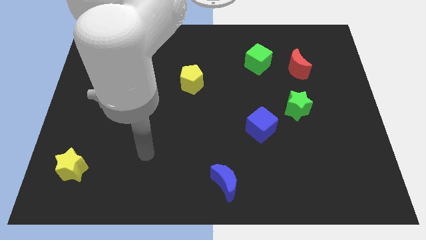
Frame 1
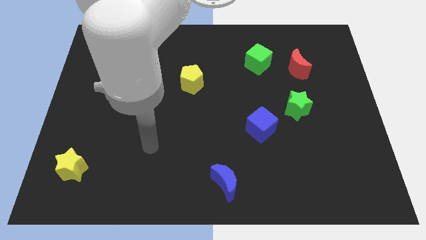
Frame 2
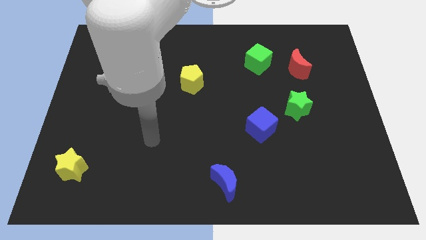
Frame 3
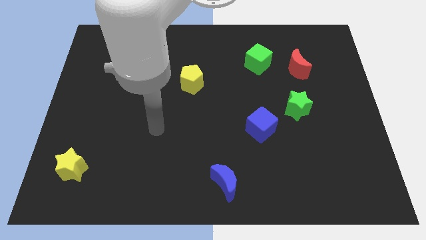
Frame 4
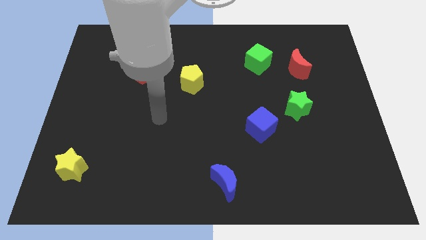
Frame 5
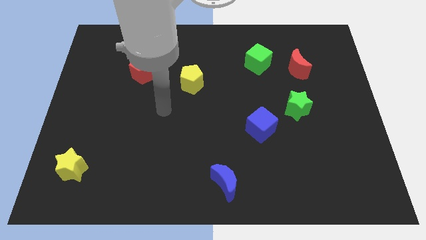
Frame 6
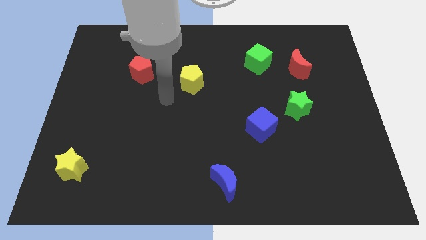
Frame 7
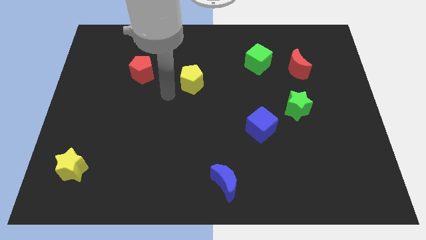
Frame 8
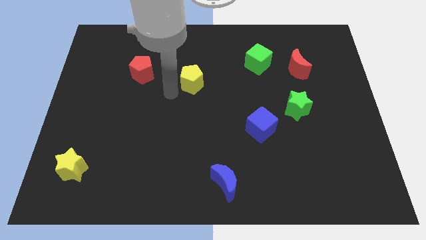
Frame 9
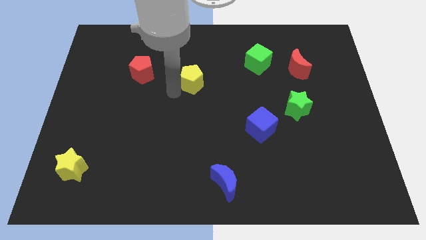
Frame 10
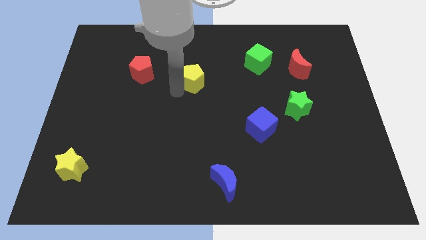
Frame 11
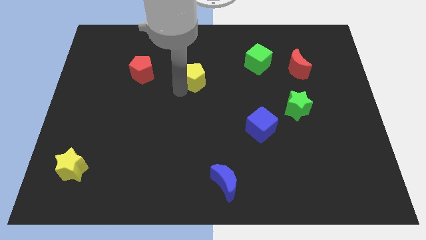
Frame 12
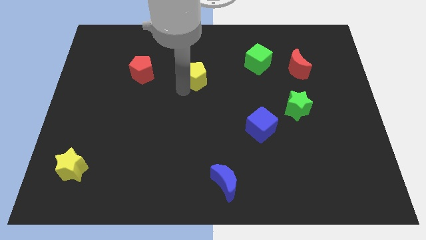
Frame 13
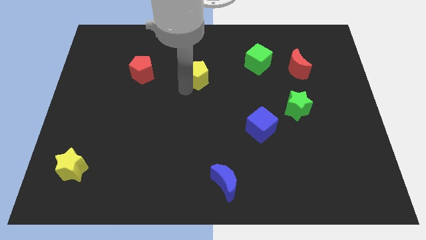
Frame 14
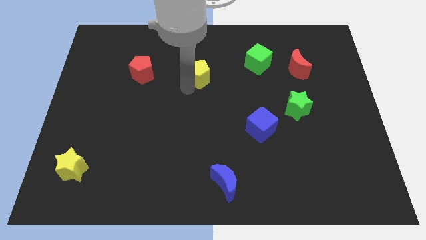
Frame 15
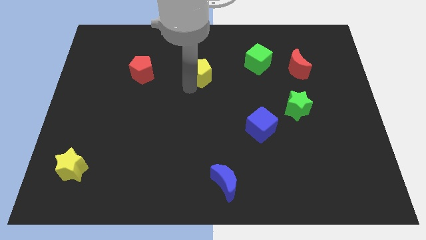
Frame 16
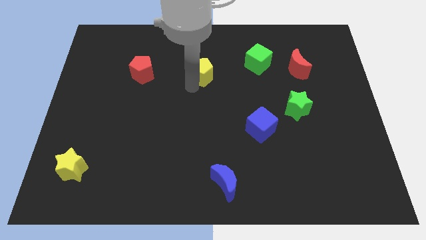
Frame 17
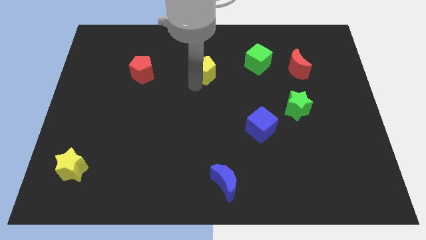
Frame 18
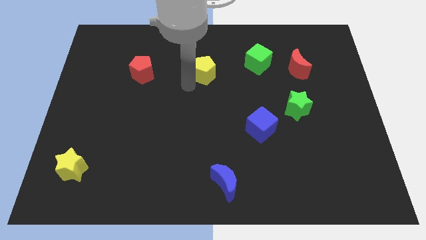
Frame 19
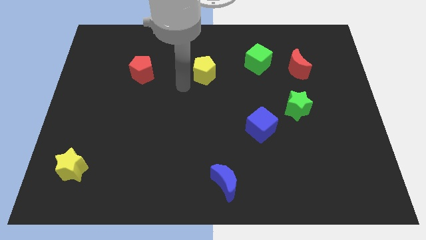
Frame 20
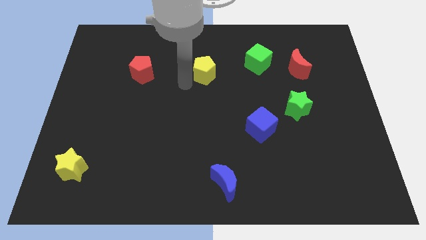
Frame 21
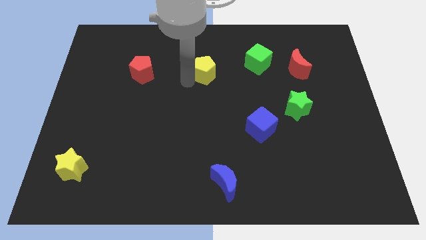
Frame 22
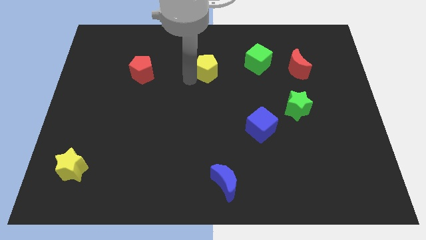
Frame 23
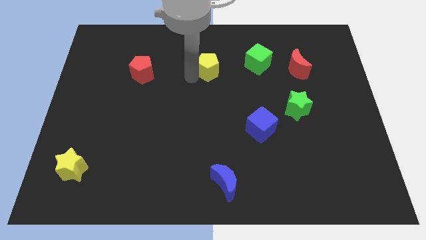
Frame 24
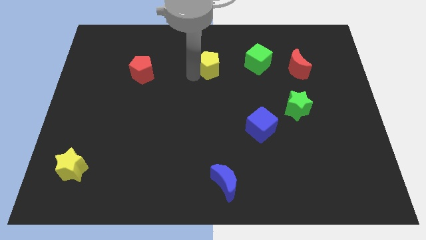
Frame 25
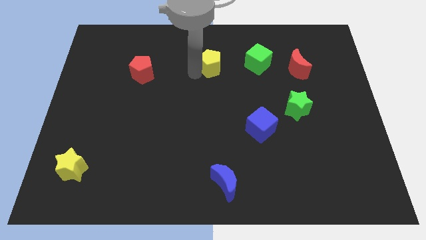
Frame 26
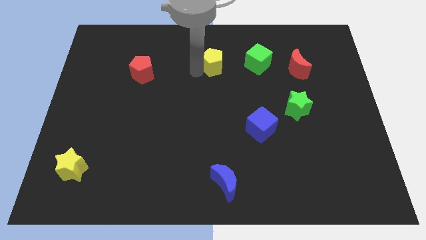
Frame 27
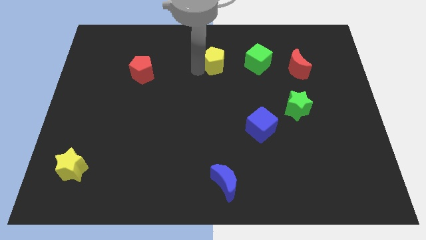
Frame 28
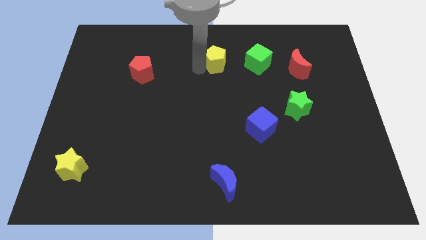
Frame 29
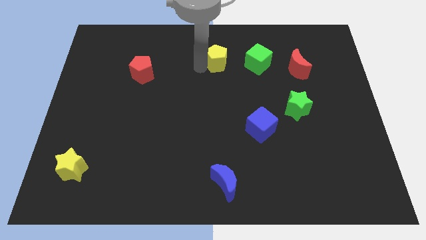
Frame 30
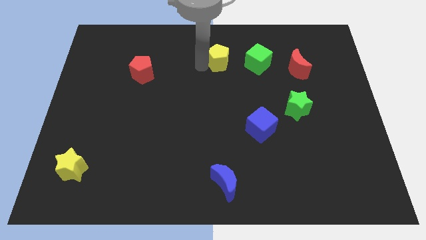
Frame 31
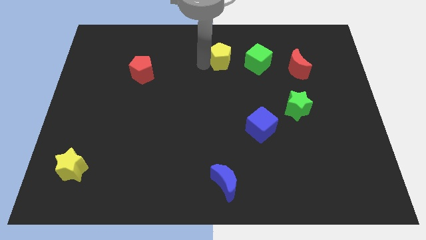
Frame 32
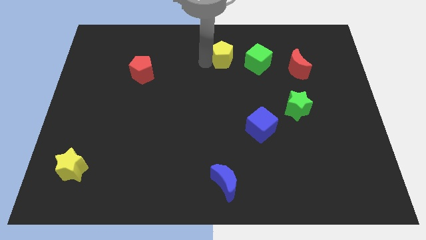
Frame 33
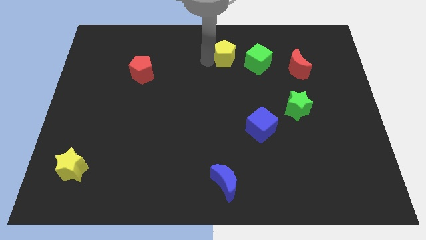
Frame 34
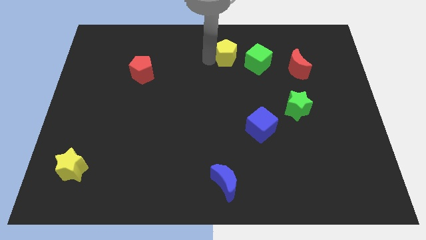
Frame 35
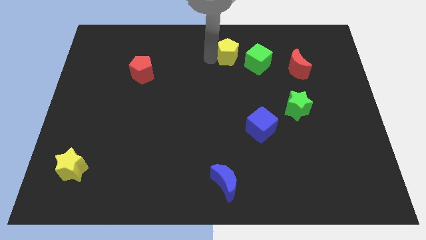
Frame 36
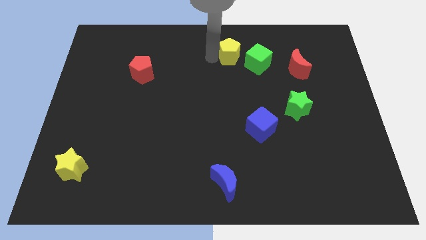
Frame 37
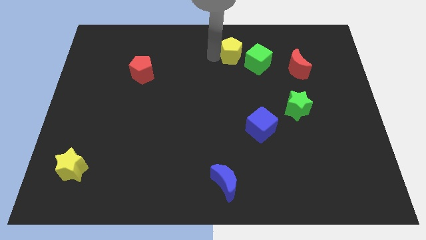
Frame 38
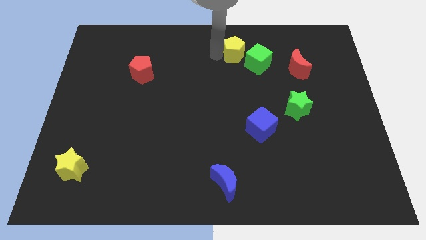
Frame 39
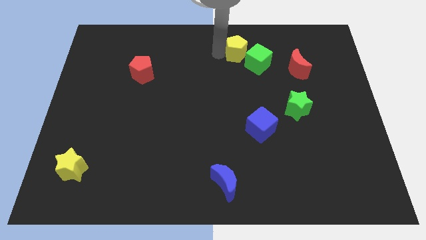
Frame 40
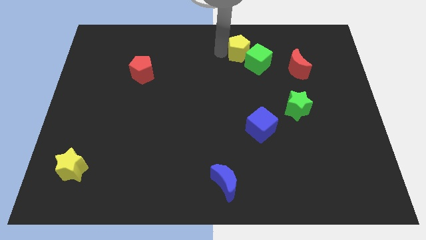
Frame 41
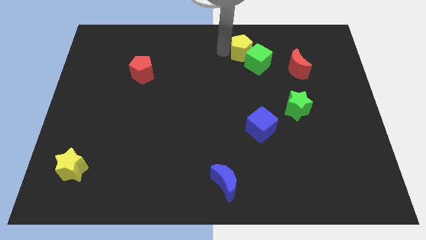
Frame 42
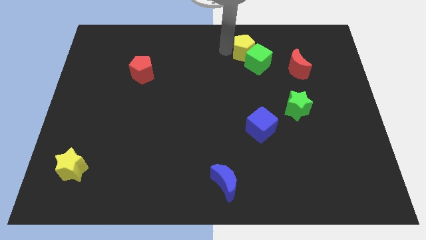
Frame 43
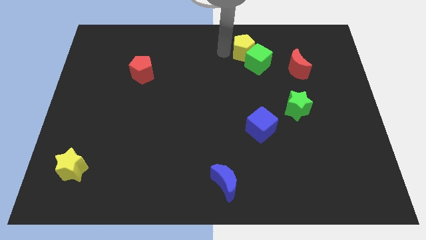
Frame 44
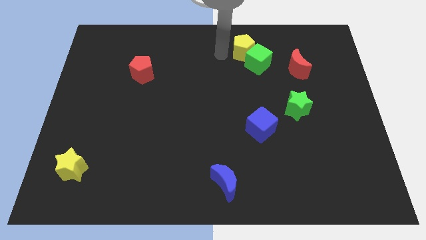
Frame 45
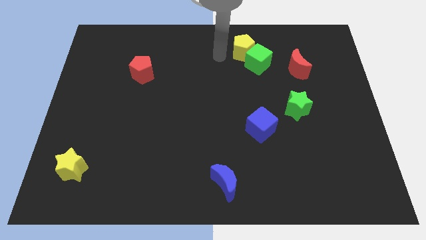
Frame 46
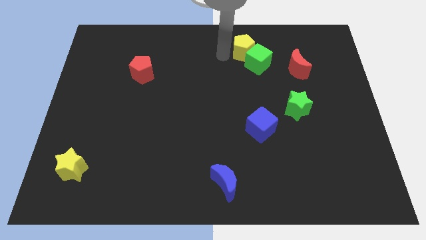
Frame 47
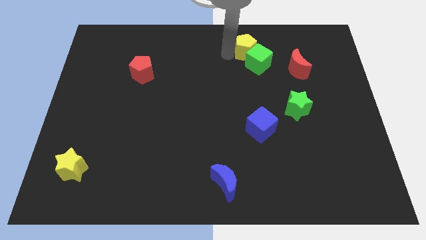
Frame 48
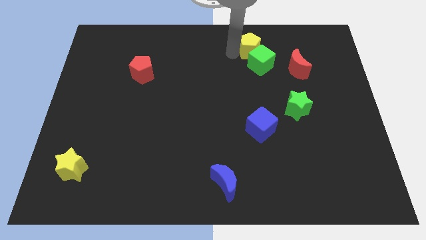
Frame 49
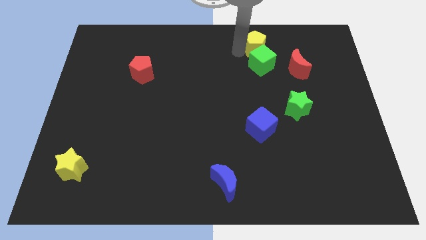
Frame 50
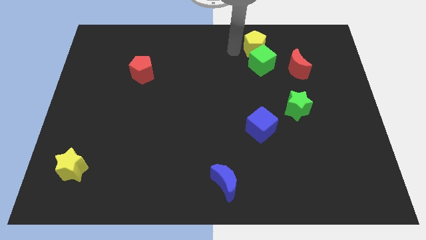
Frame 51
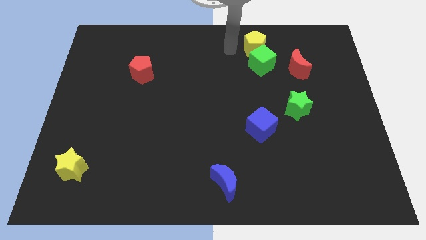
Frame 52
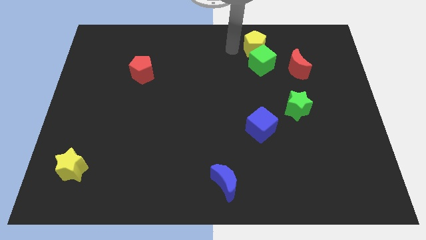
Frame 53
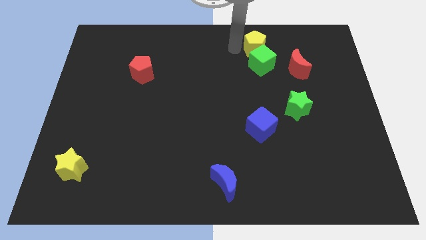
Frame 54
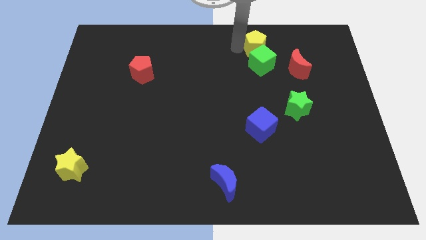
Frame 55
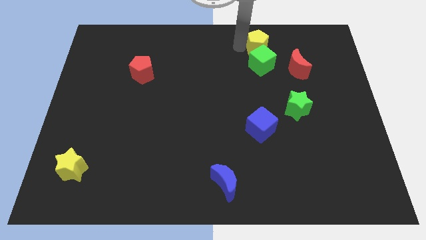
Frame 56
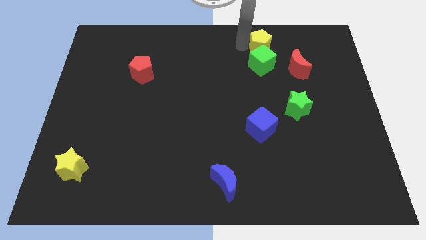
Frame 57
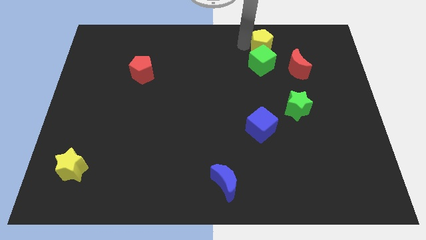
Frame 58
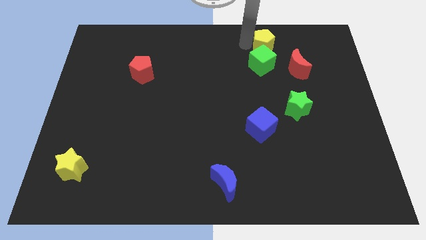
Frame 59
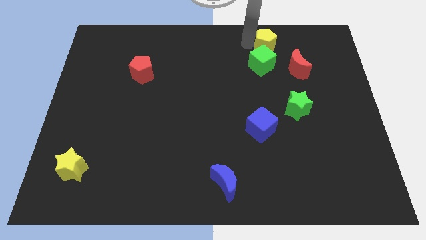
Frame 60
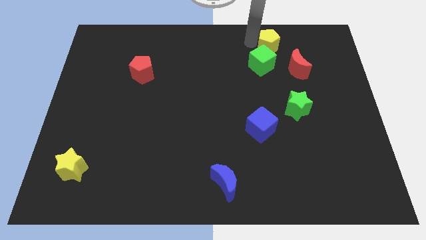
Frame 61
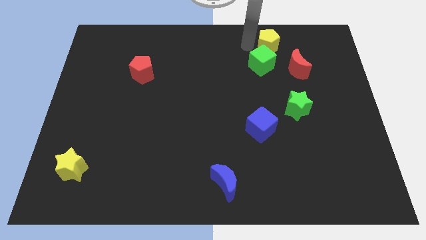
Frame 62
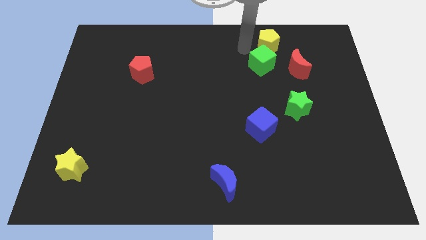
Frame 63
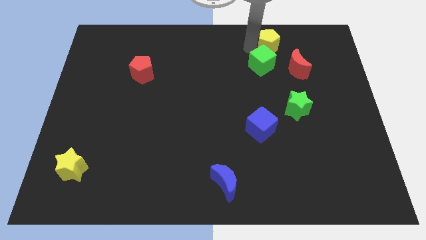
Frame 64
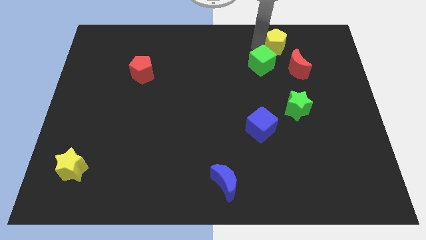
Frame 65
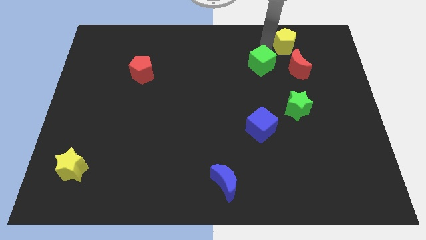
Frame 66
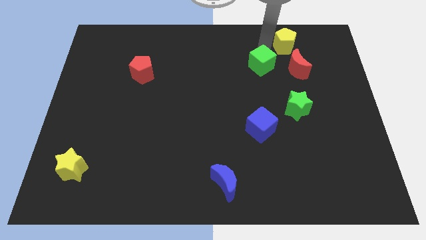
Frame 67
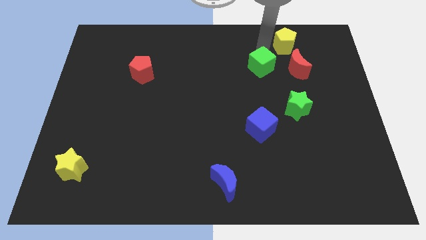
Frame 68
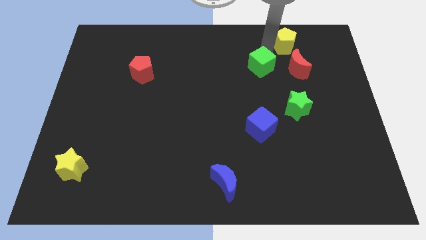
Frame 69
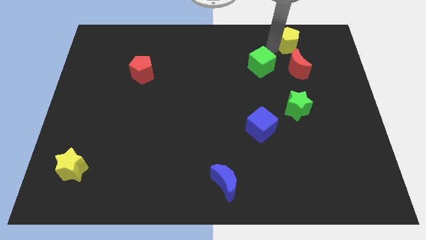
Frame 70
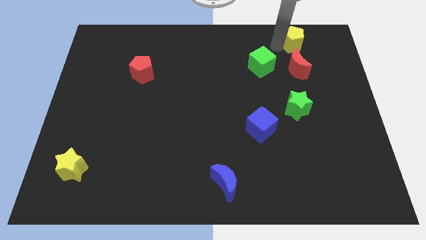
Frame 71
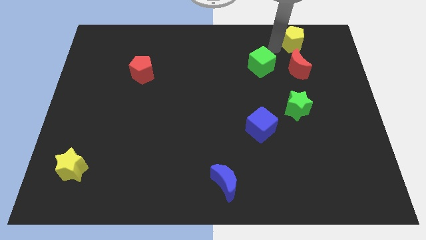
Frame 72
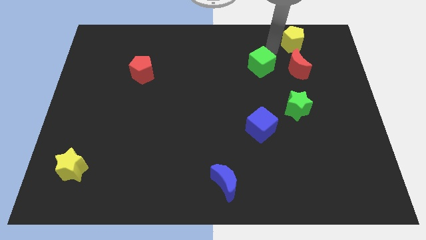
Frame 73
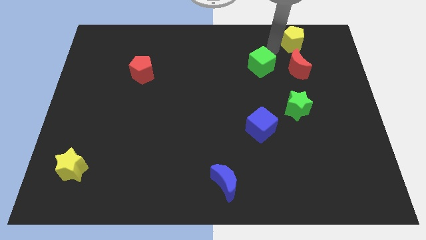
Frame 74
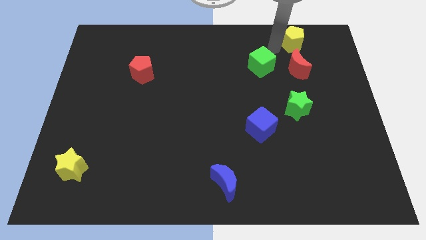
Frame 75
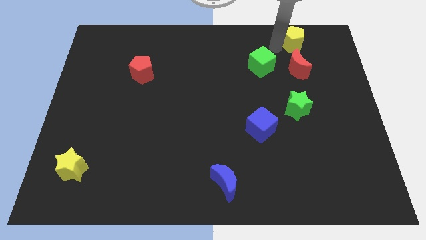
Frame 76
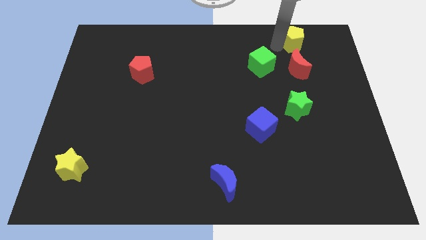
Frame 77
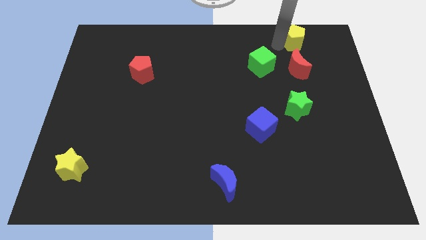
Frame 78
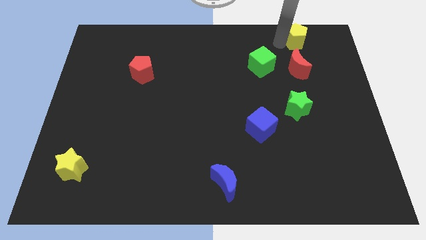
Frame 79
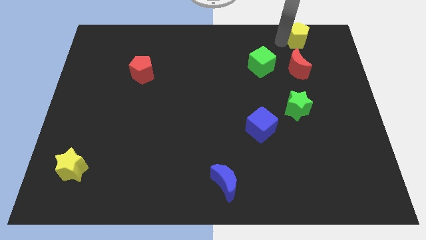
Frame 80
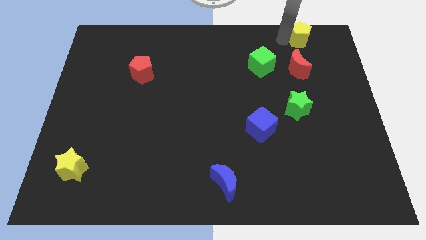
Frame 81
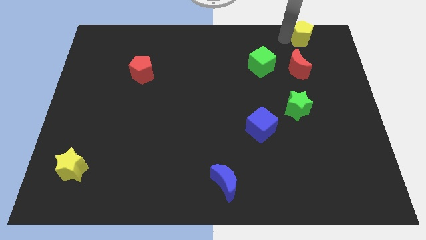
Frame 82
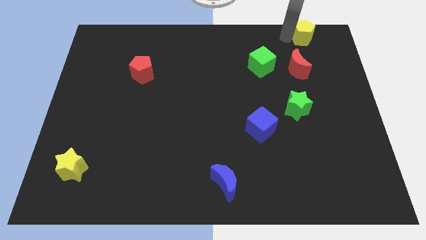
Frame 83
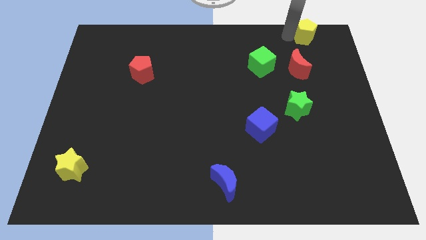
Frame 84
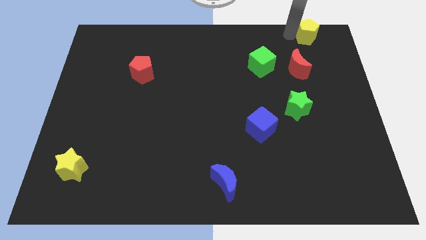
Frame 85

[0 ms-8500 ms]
slide the yellow pentagon to the top right of the board
